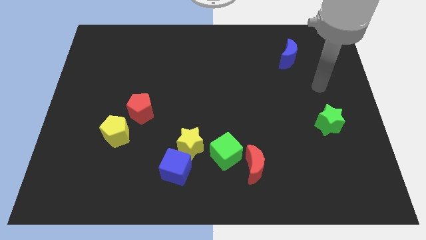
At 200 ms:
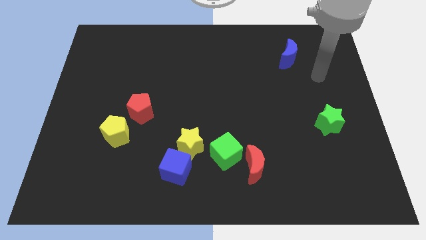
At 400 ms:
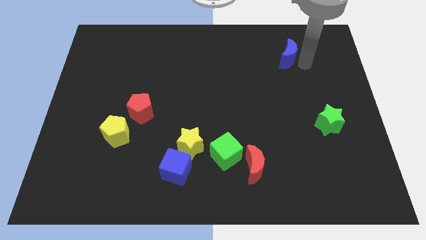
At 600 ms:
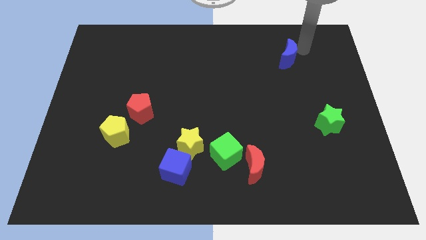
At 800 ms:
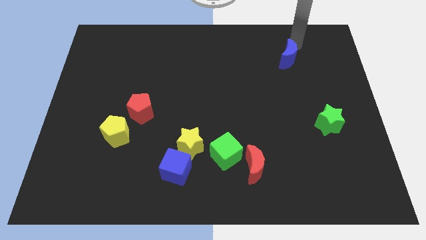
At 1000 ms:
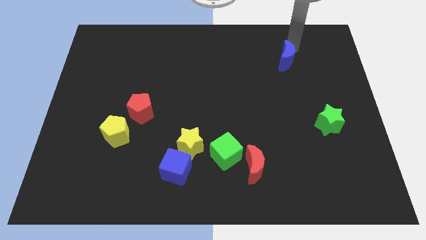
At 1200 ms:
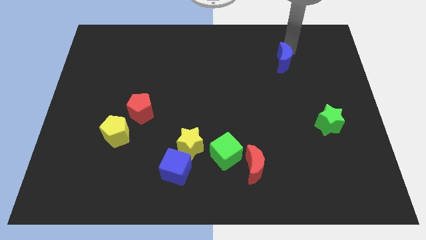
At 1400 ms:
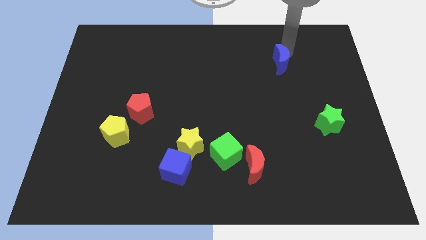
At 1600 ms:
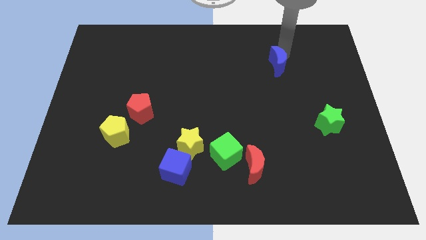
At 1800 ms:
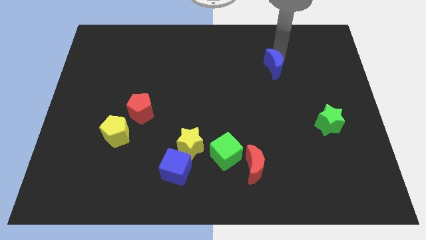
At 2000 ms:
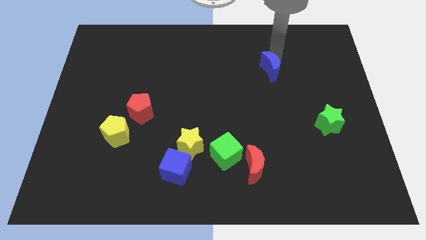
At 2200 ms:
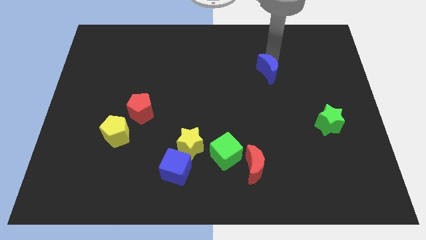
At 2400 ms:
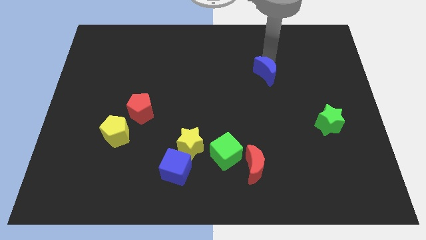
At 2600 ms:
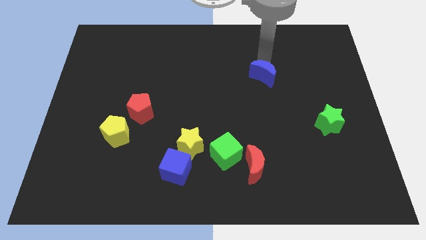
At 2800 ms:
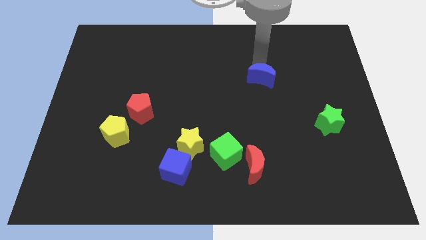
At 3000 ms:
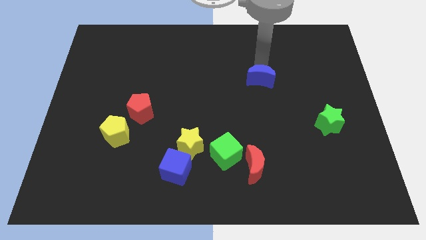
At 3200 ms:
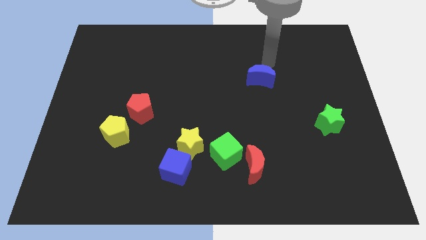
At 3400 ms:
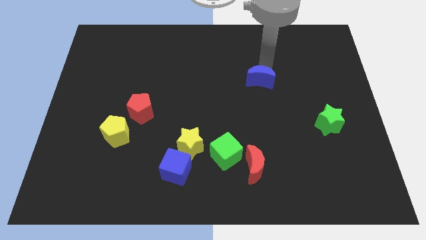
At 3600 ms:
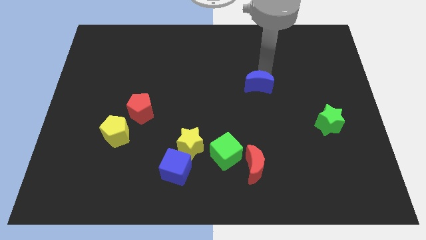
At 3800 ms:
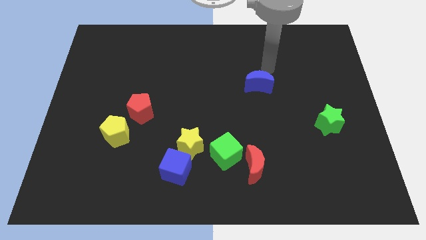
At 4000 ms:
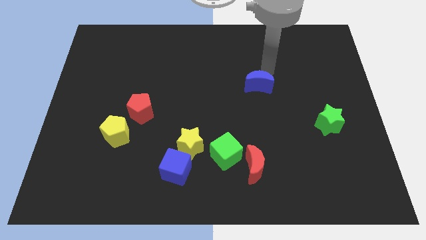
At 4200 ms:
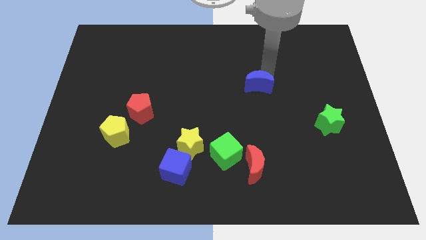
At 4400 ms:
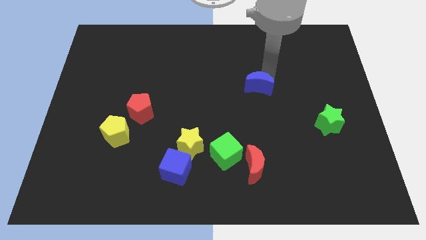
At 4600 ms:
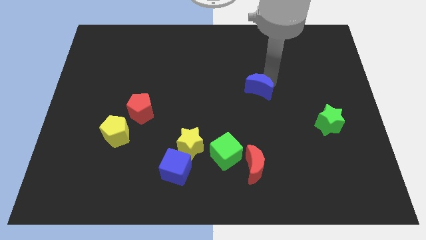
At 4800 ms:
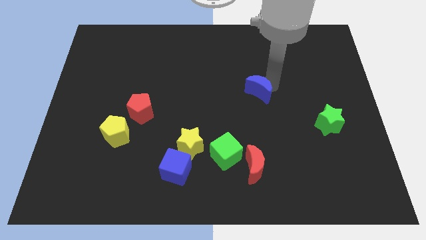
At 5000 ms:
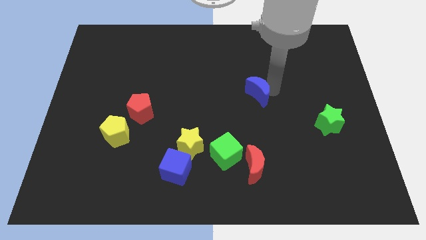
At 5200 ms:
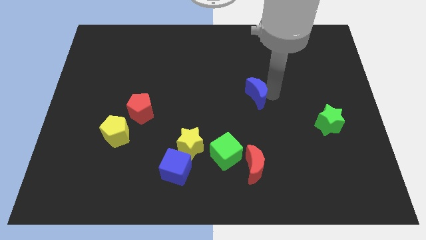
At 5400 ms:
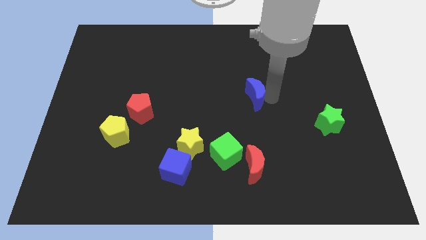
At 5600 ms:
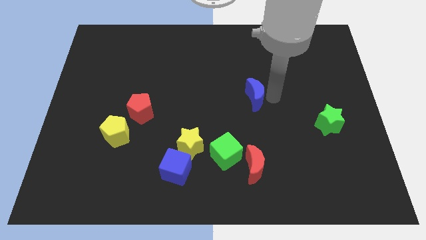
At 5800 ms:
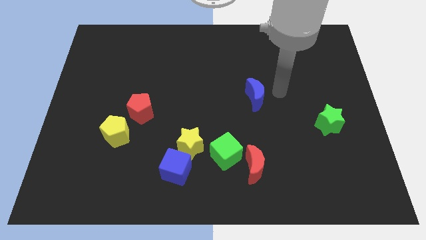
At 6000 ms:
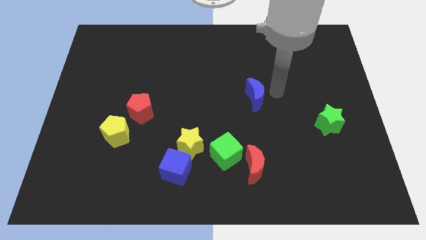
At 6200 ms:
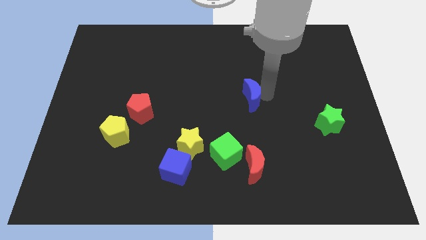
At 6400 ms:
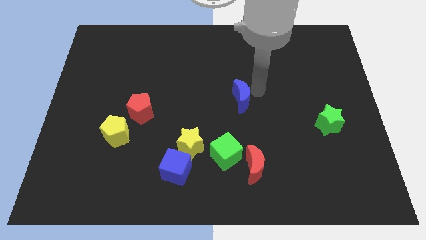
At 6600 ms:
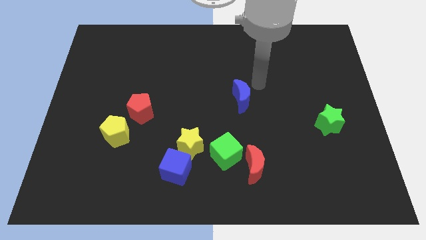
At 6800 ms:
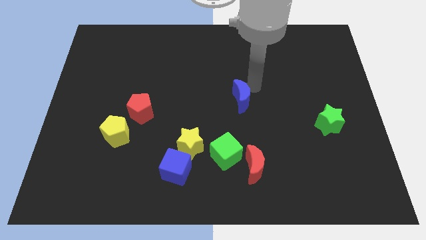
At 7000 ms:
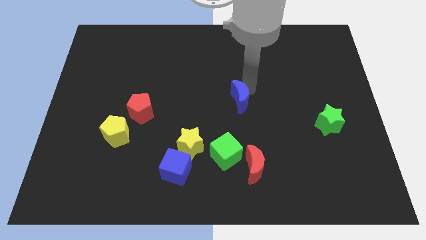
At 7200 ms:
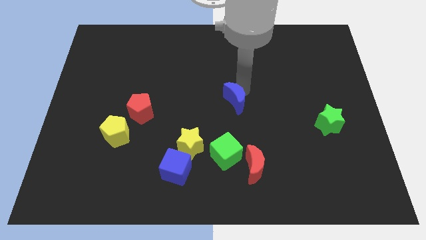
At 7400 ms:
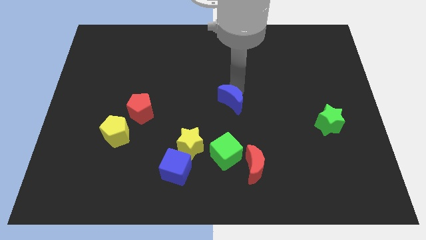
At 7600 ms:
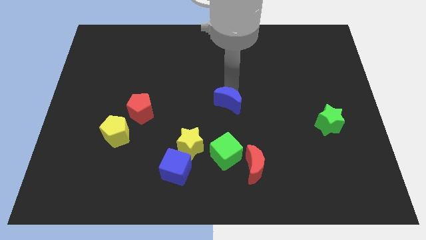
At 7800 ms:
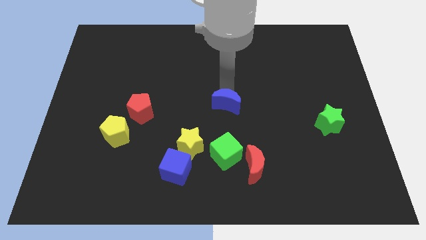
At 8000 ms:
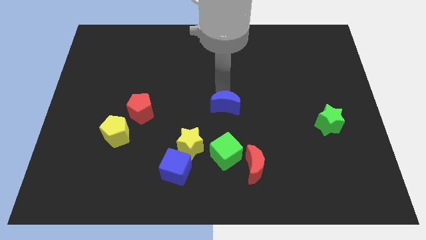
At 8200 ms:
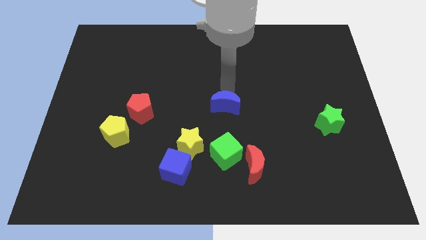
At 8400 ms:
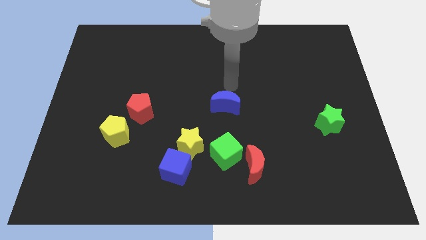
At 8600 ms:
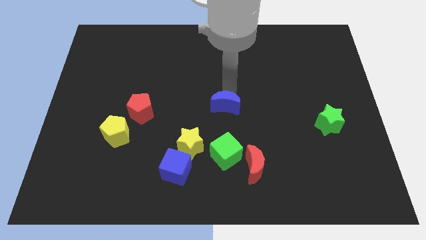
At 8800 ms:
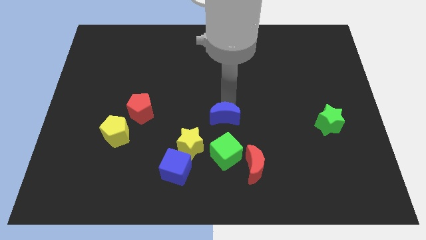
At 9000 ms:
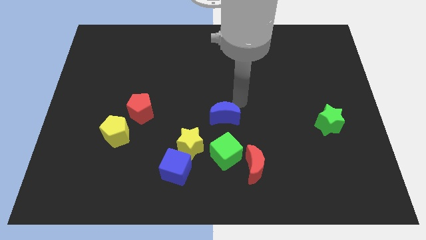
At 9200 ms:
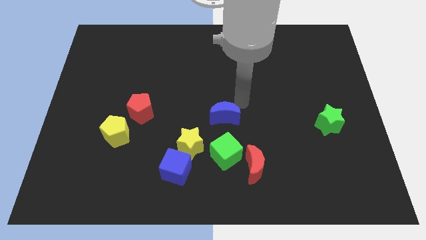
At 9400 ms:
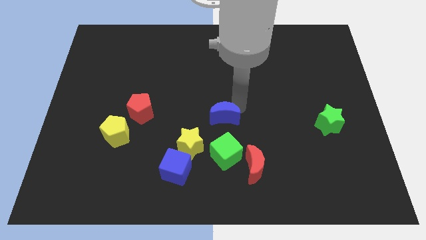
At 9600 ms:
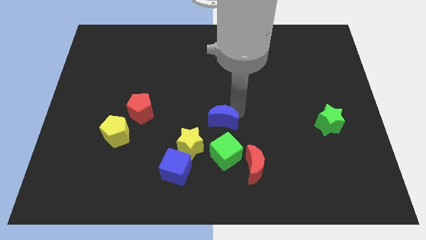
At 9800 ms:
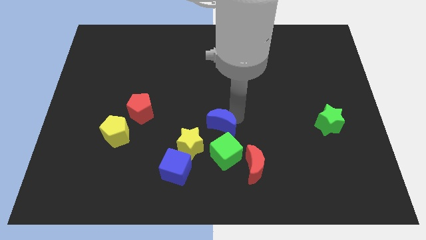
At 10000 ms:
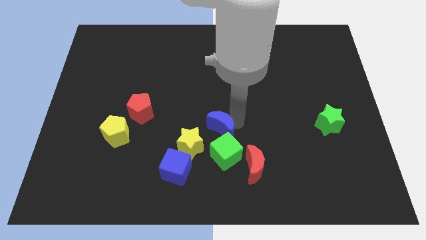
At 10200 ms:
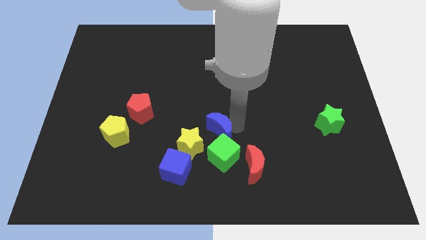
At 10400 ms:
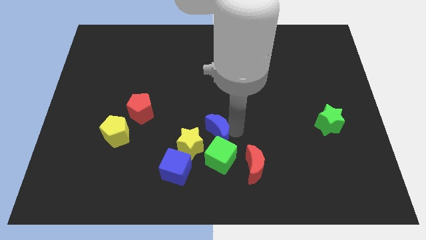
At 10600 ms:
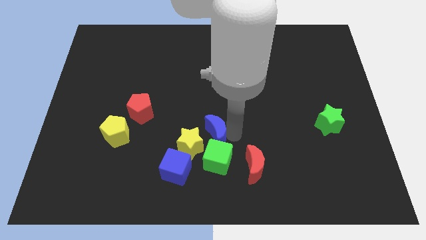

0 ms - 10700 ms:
slide the blue moon to the yellow star

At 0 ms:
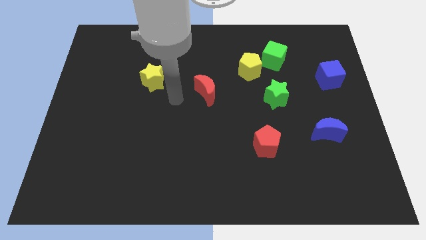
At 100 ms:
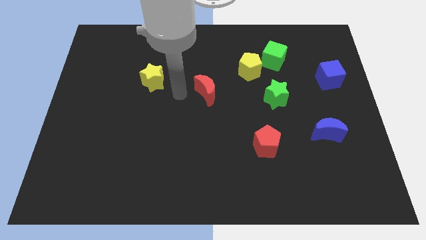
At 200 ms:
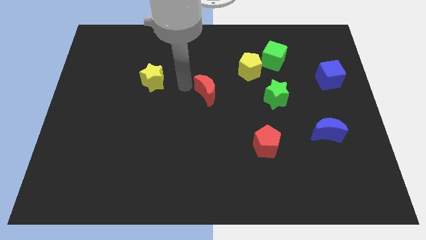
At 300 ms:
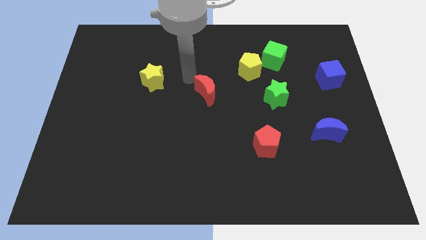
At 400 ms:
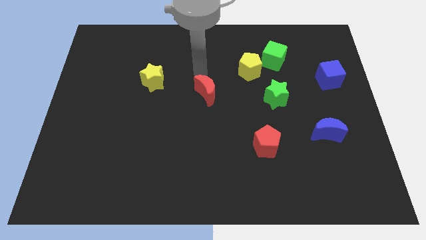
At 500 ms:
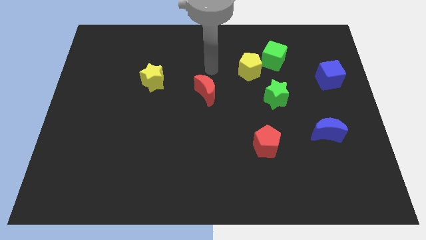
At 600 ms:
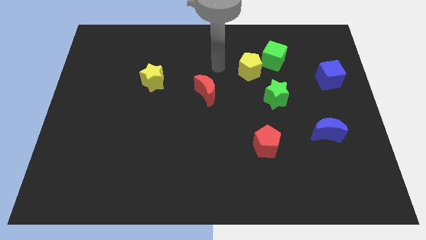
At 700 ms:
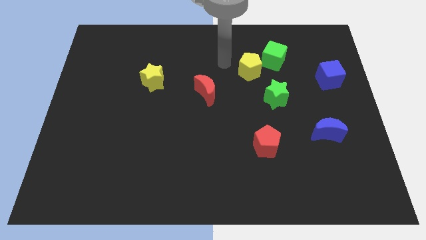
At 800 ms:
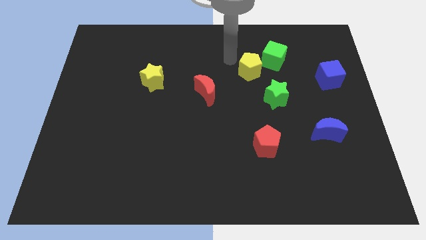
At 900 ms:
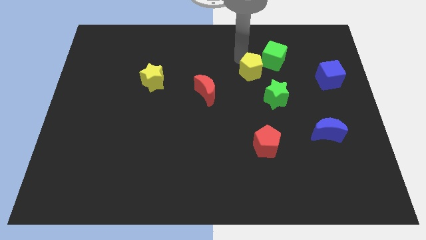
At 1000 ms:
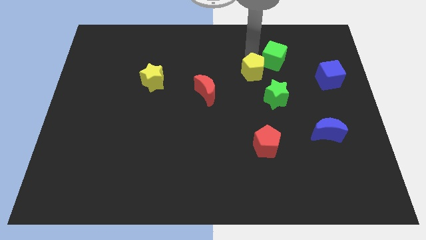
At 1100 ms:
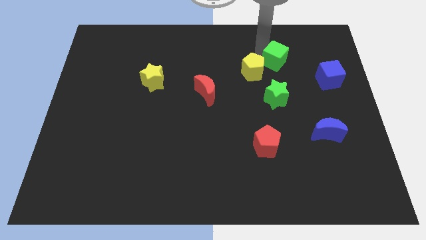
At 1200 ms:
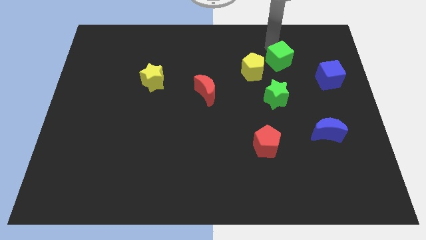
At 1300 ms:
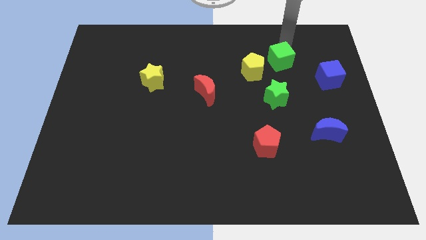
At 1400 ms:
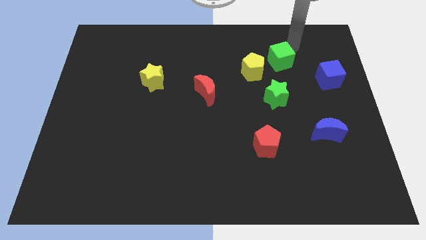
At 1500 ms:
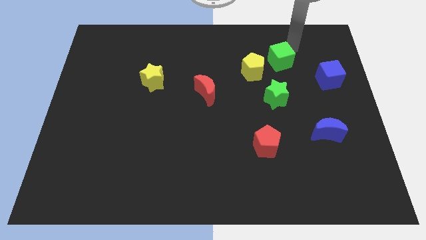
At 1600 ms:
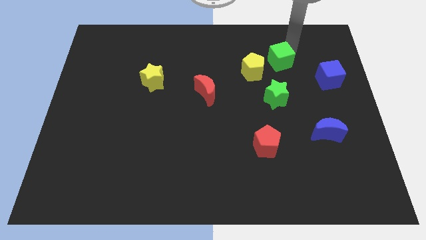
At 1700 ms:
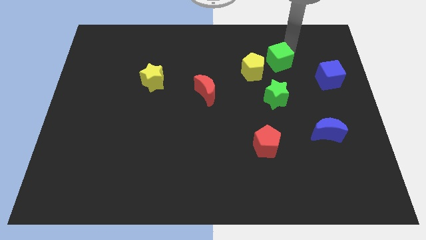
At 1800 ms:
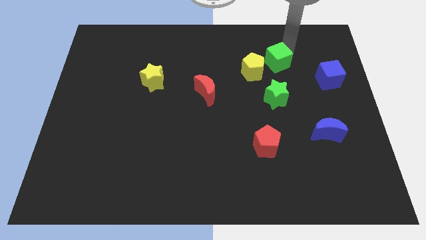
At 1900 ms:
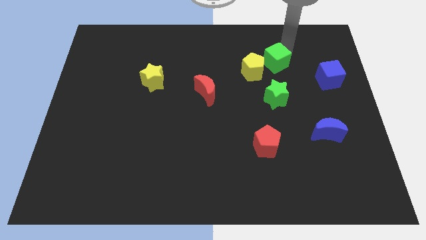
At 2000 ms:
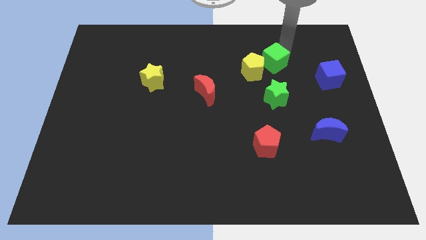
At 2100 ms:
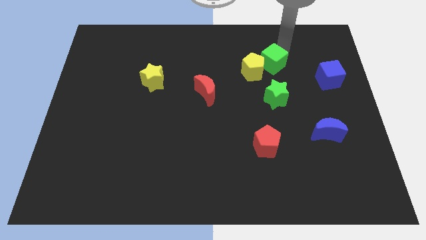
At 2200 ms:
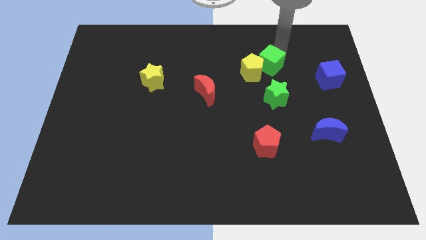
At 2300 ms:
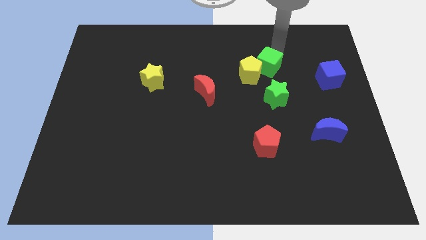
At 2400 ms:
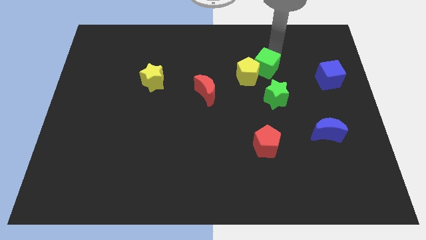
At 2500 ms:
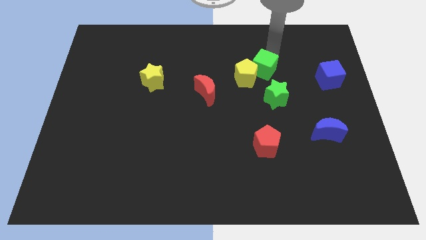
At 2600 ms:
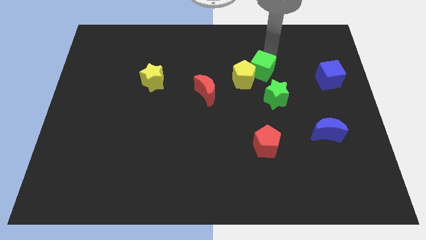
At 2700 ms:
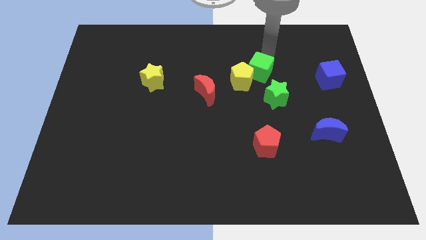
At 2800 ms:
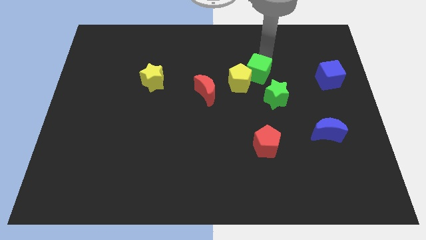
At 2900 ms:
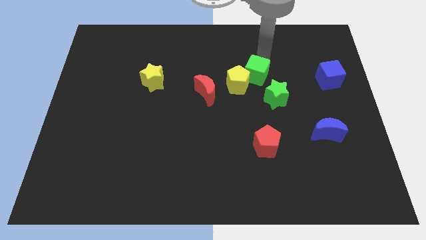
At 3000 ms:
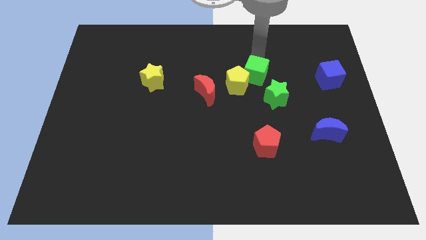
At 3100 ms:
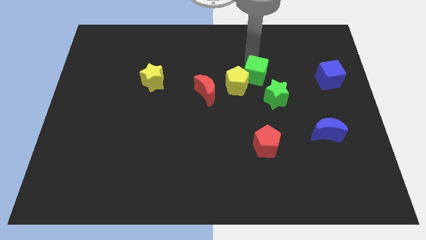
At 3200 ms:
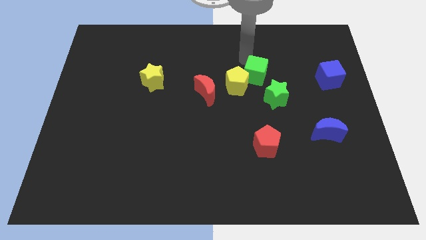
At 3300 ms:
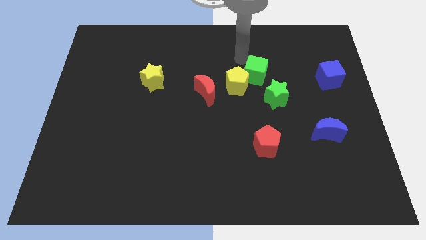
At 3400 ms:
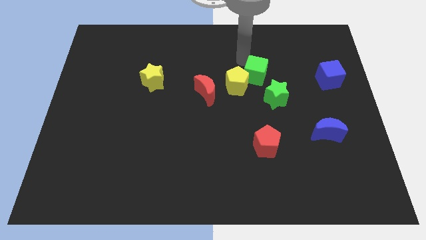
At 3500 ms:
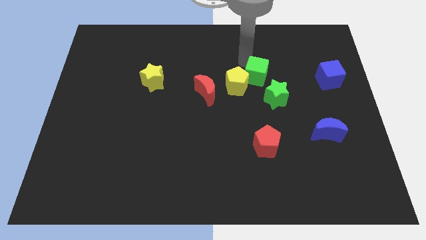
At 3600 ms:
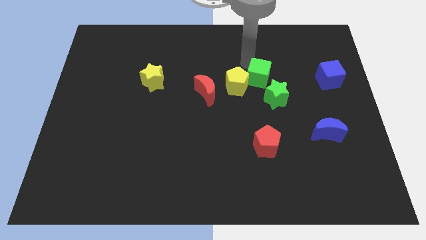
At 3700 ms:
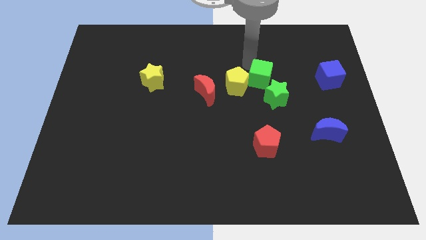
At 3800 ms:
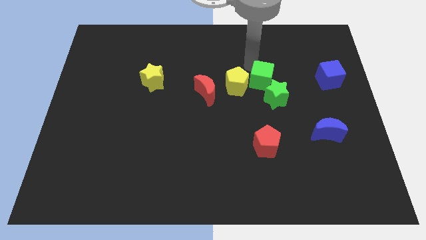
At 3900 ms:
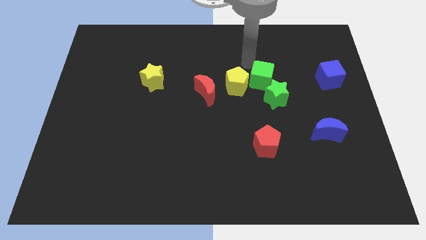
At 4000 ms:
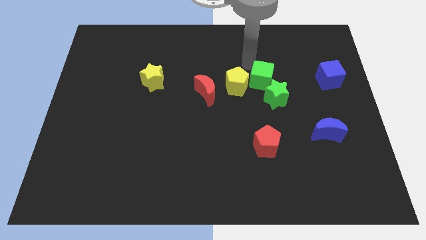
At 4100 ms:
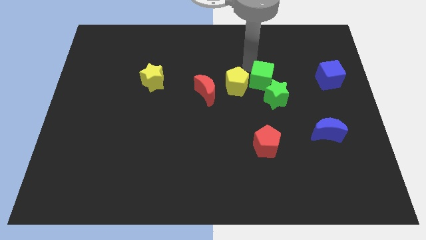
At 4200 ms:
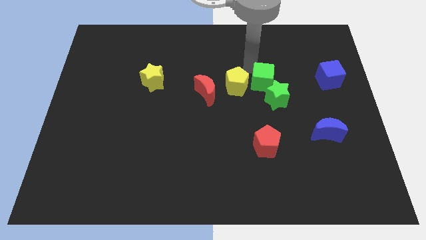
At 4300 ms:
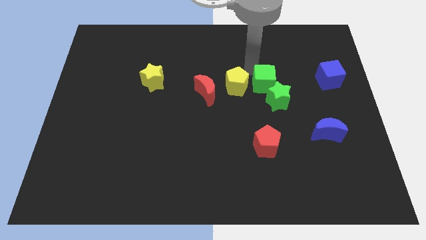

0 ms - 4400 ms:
slide the green cube next to the green star
